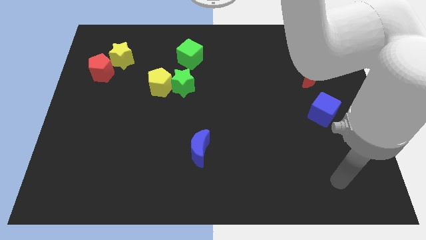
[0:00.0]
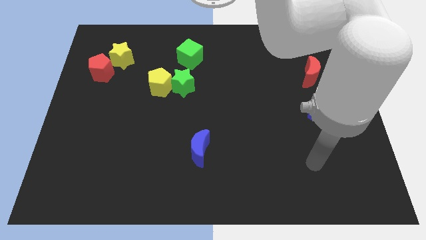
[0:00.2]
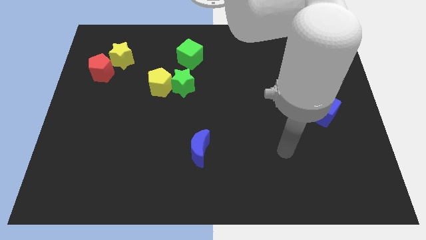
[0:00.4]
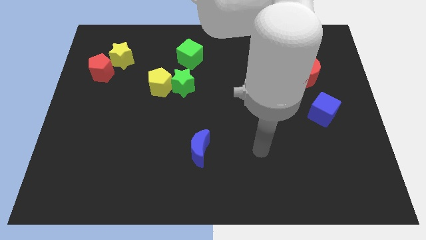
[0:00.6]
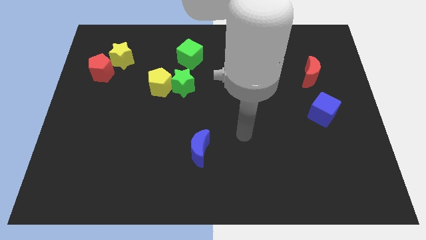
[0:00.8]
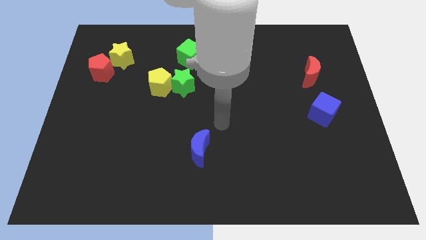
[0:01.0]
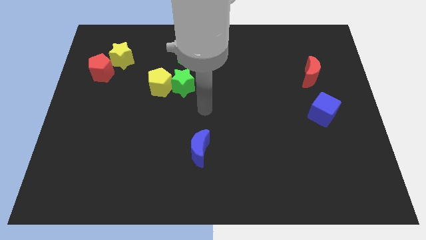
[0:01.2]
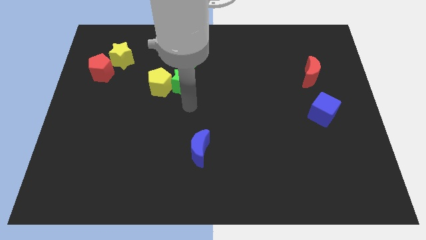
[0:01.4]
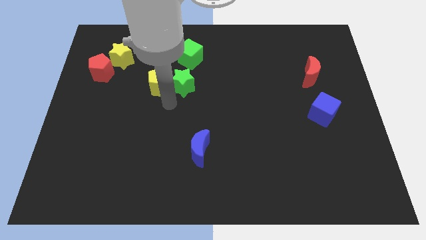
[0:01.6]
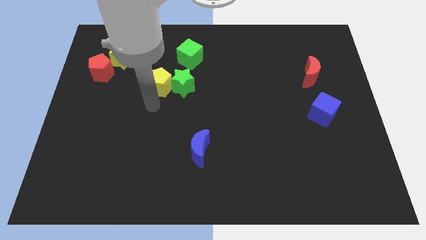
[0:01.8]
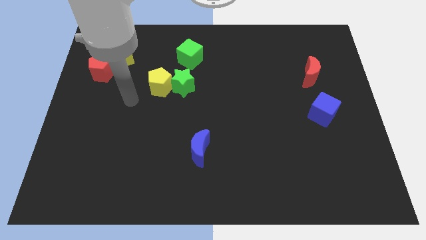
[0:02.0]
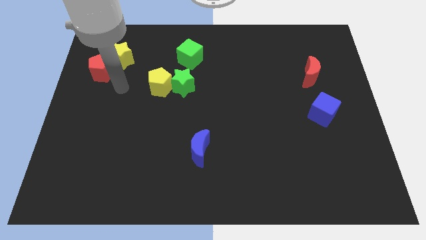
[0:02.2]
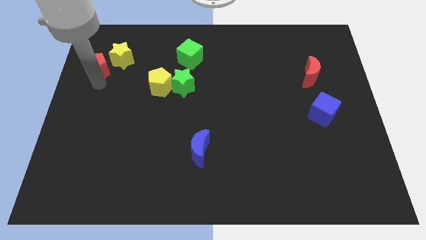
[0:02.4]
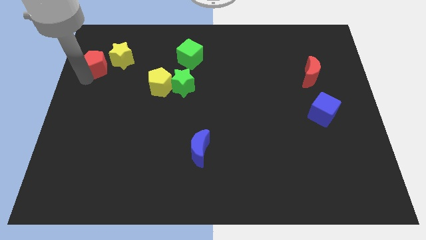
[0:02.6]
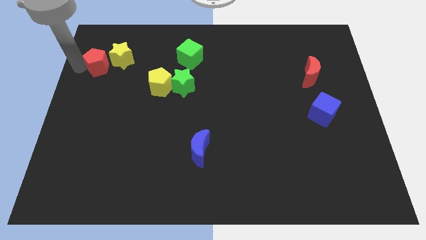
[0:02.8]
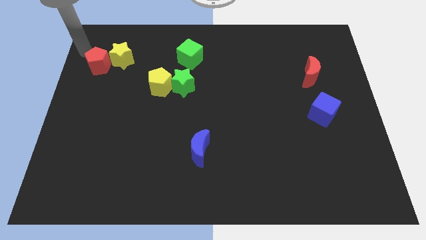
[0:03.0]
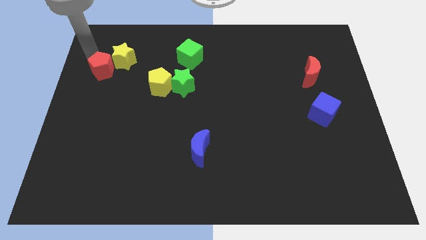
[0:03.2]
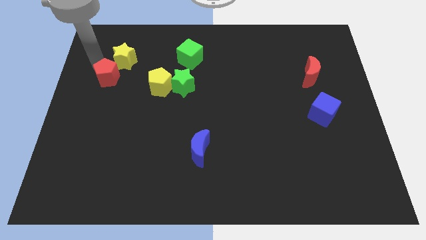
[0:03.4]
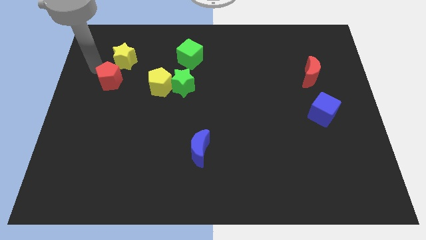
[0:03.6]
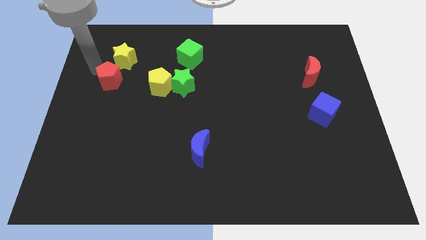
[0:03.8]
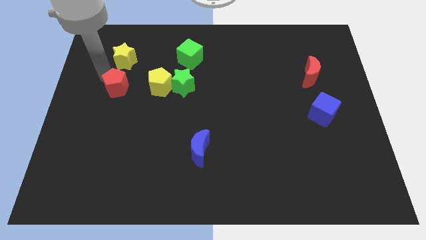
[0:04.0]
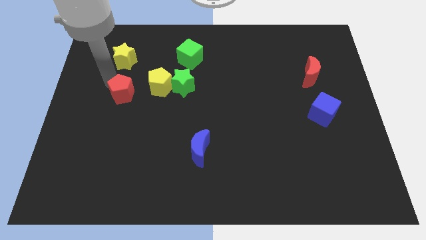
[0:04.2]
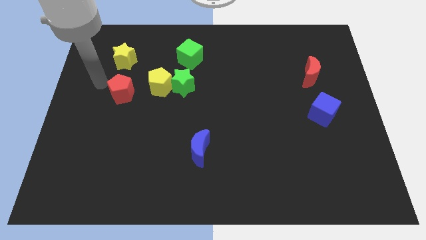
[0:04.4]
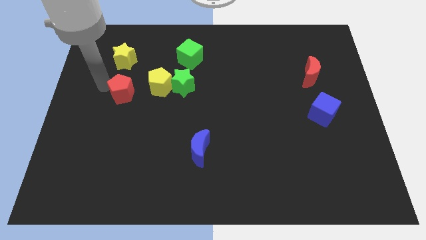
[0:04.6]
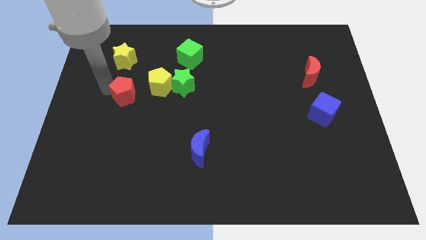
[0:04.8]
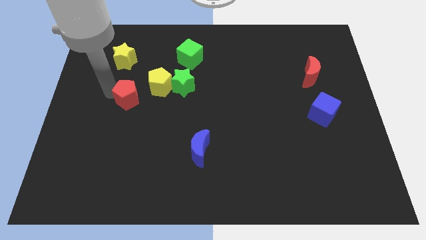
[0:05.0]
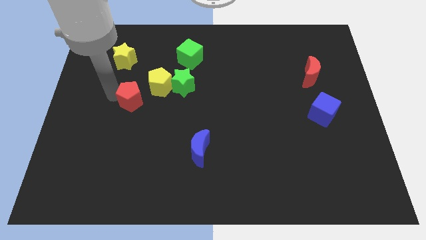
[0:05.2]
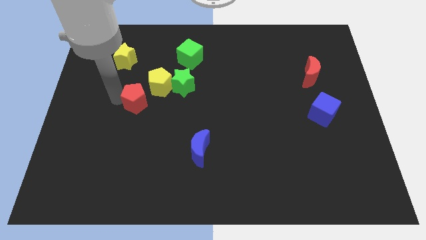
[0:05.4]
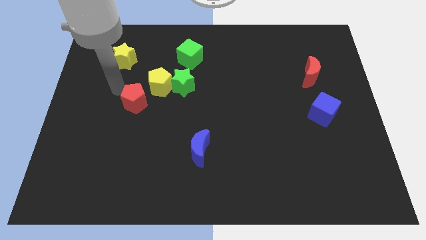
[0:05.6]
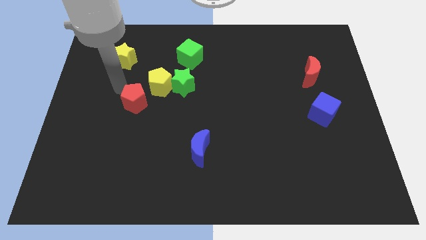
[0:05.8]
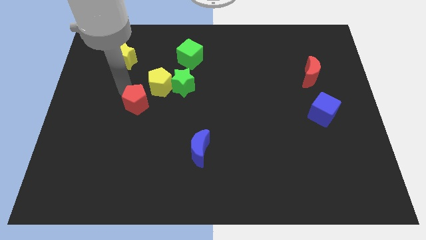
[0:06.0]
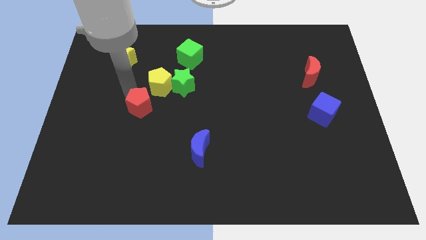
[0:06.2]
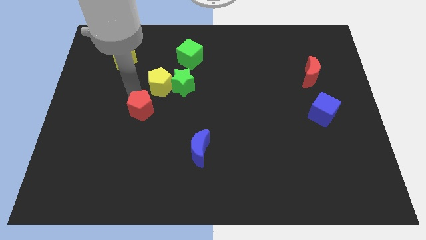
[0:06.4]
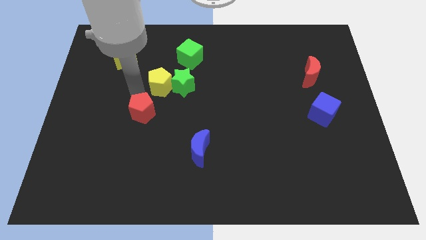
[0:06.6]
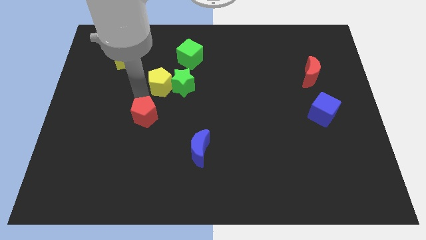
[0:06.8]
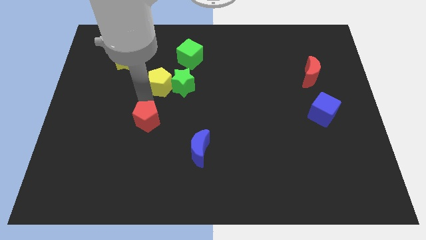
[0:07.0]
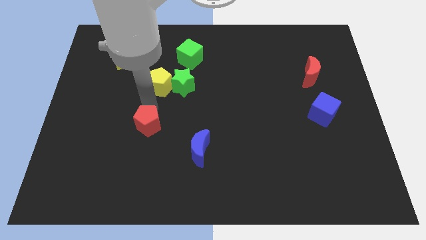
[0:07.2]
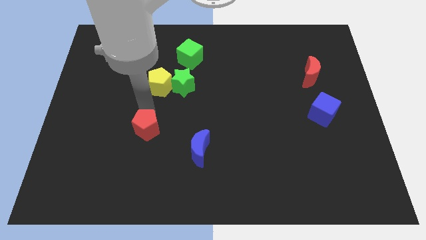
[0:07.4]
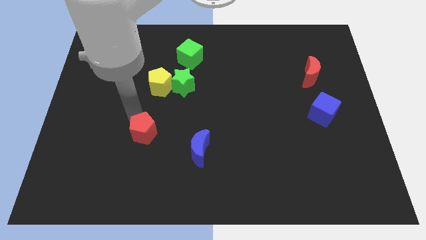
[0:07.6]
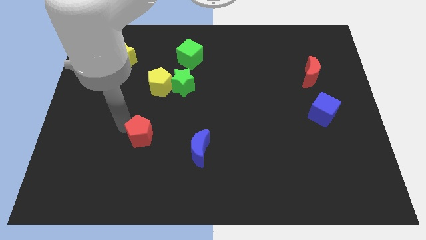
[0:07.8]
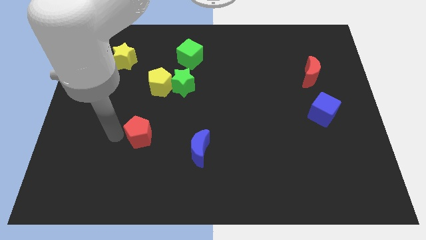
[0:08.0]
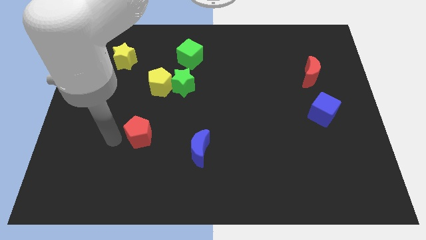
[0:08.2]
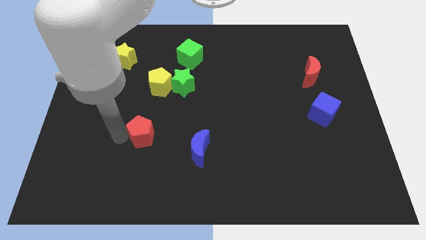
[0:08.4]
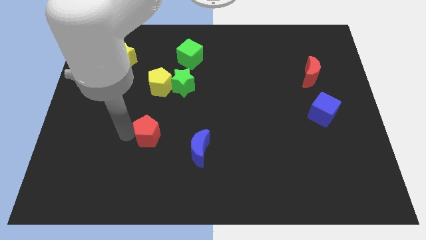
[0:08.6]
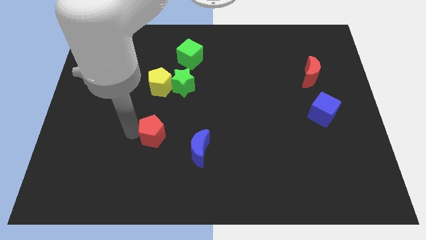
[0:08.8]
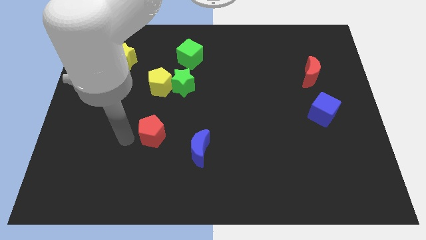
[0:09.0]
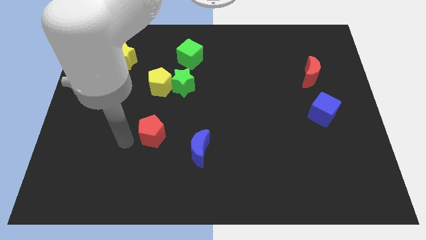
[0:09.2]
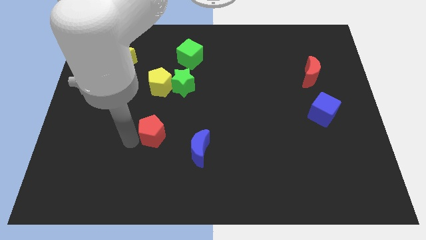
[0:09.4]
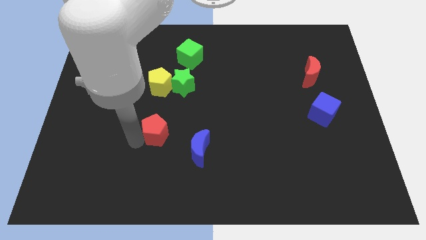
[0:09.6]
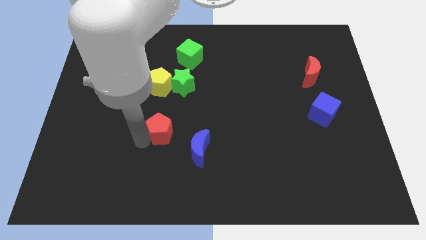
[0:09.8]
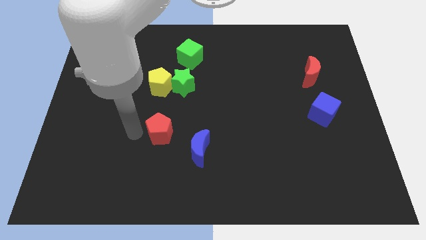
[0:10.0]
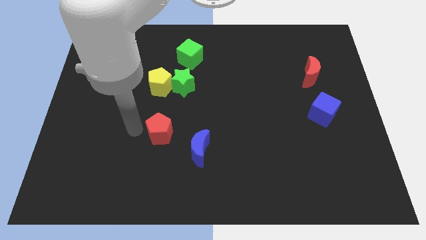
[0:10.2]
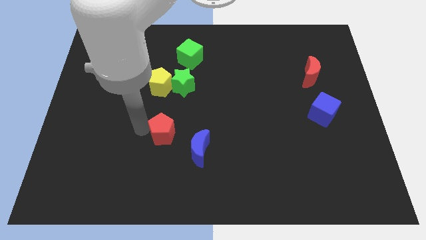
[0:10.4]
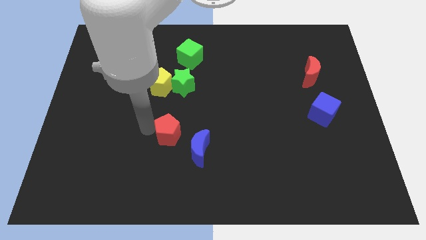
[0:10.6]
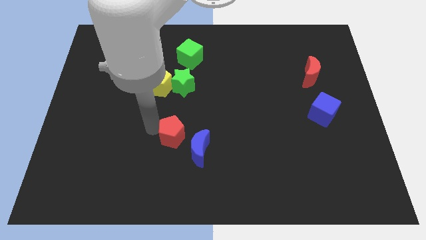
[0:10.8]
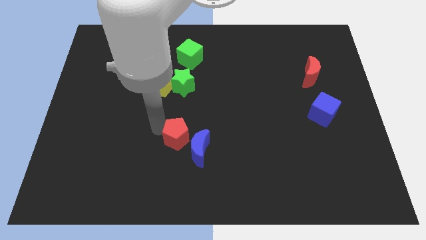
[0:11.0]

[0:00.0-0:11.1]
put the red pentagon towards the blue moon

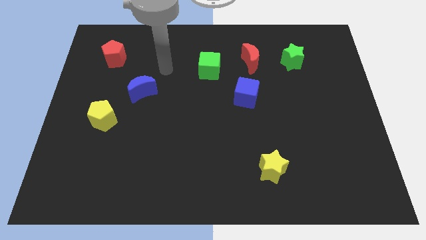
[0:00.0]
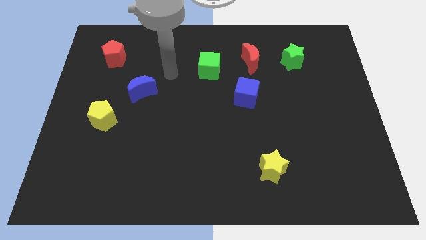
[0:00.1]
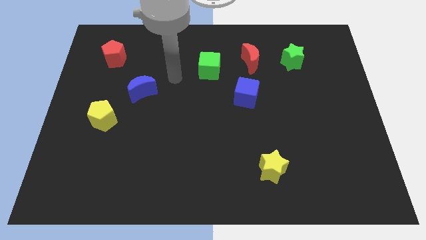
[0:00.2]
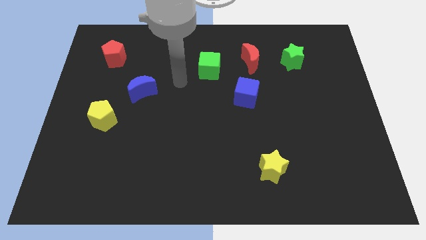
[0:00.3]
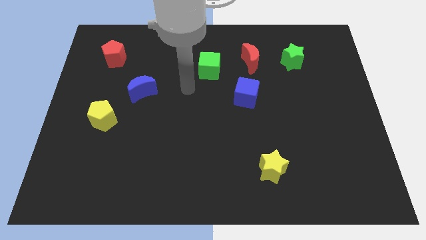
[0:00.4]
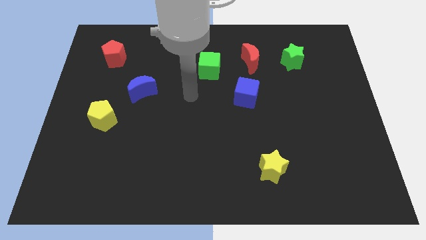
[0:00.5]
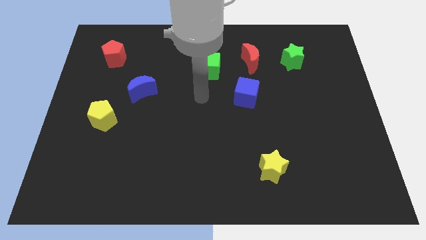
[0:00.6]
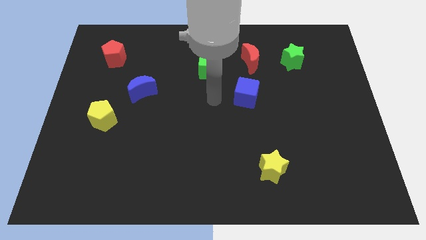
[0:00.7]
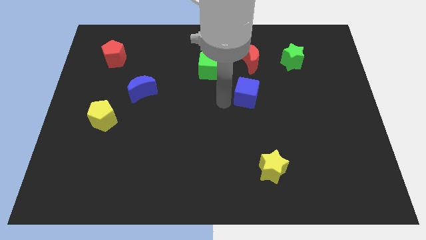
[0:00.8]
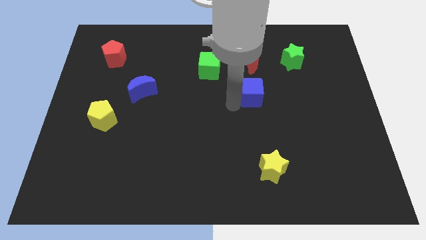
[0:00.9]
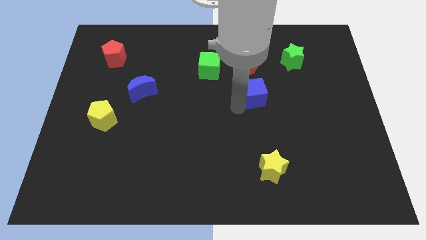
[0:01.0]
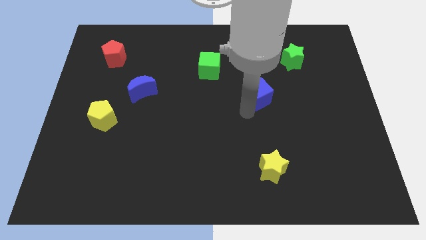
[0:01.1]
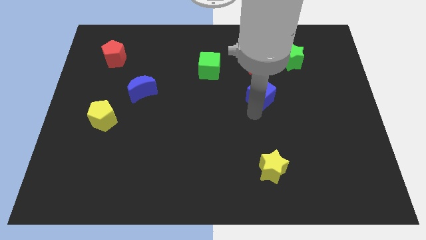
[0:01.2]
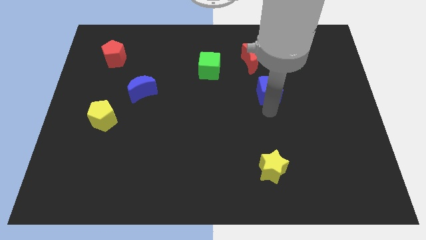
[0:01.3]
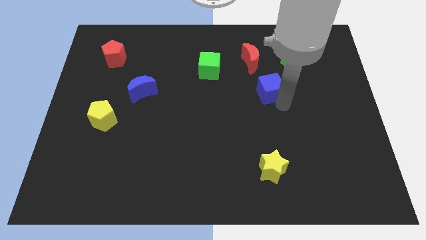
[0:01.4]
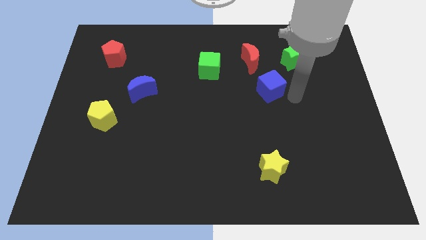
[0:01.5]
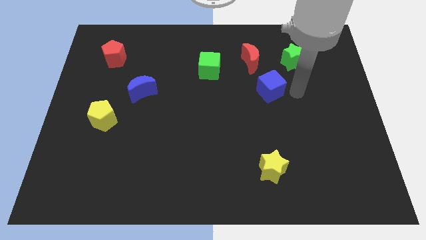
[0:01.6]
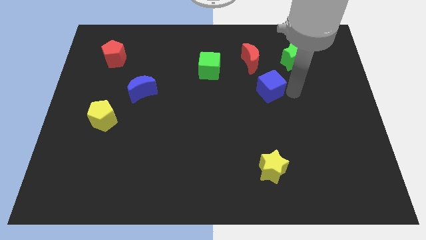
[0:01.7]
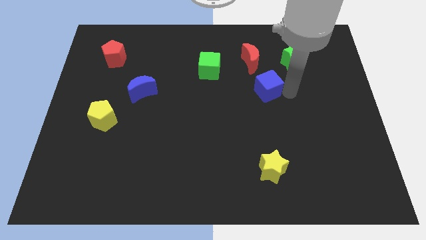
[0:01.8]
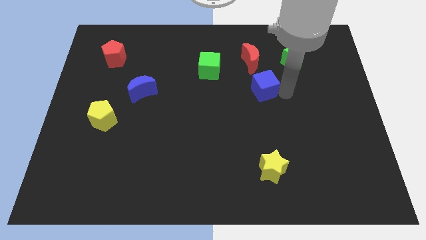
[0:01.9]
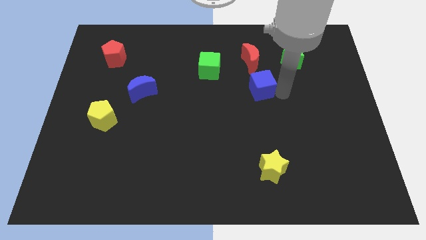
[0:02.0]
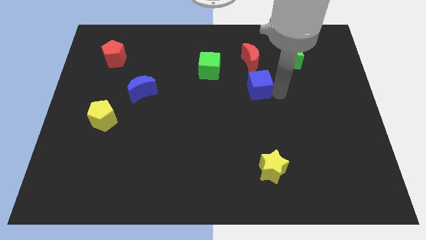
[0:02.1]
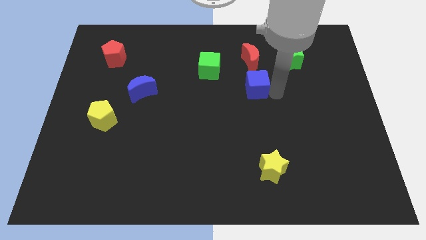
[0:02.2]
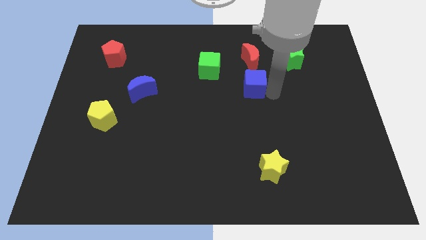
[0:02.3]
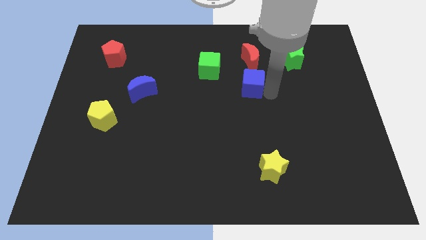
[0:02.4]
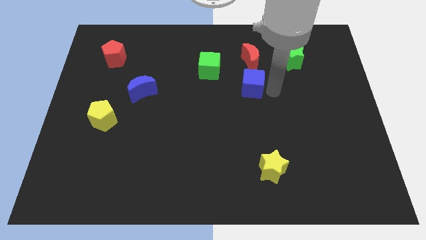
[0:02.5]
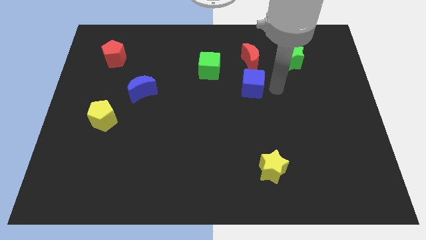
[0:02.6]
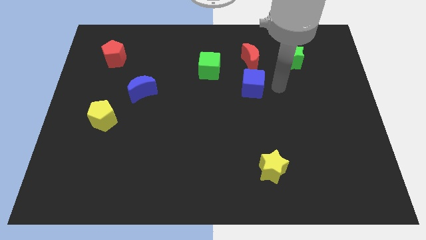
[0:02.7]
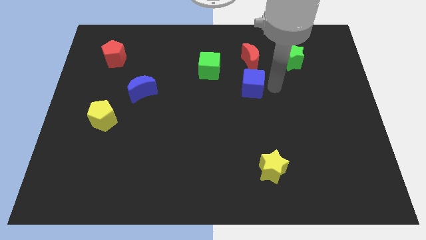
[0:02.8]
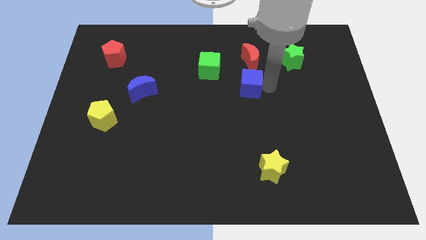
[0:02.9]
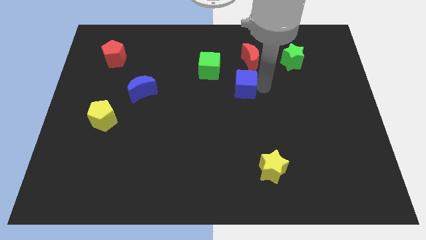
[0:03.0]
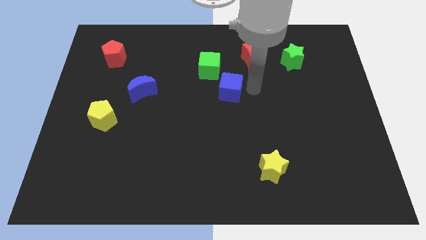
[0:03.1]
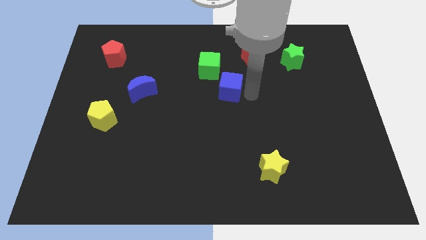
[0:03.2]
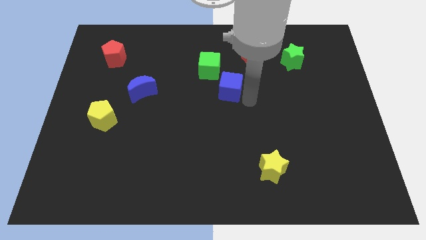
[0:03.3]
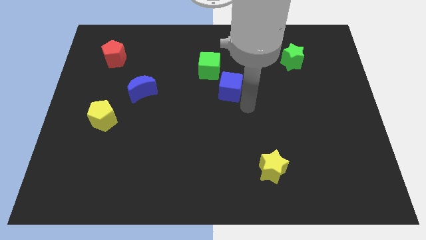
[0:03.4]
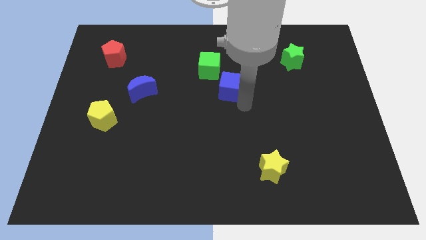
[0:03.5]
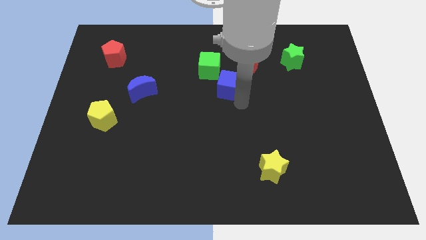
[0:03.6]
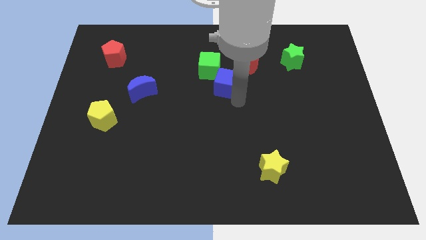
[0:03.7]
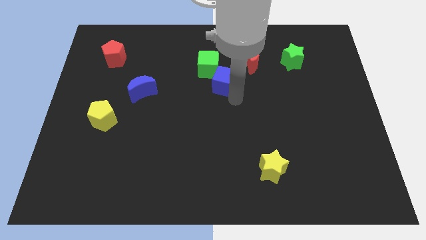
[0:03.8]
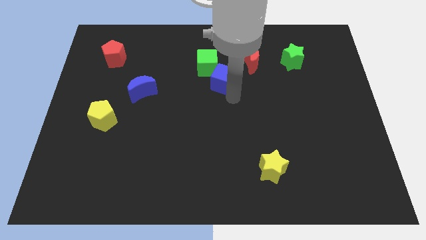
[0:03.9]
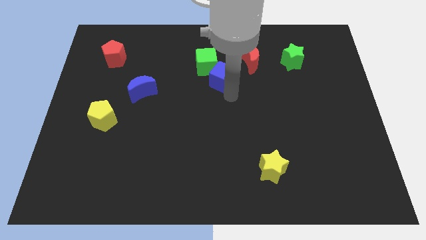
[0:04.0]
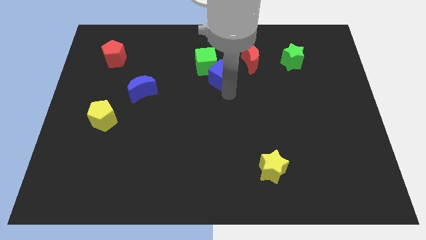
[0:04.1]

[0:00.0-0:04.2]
put the blue cube to the green cube
